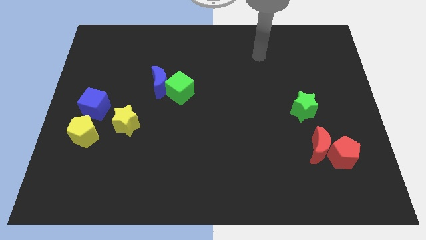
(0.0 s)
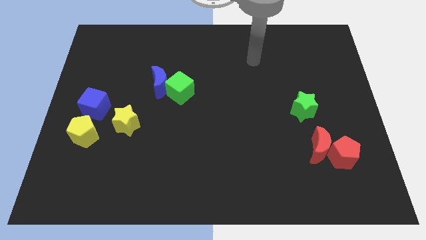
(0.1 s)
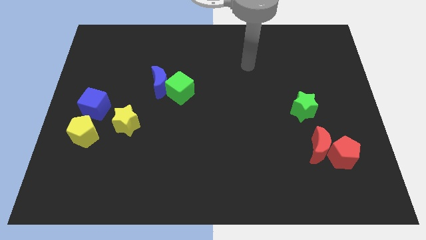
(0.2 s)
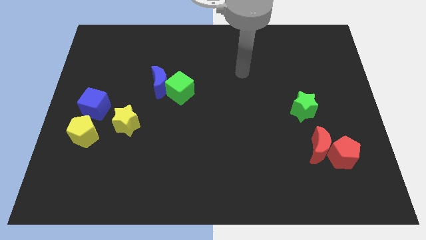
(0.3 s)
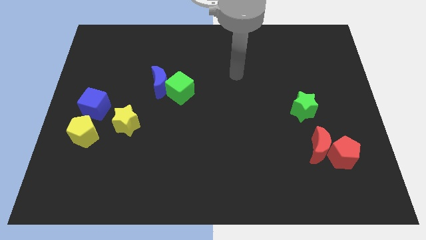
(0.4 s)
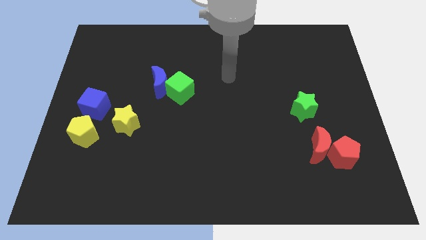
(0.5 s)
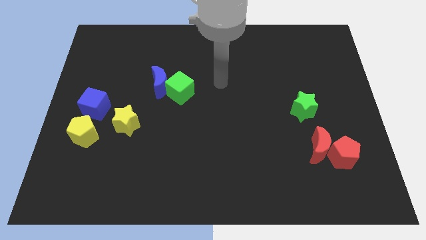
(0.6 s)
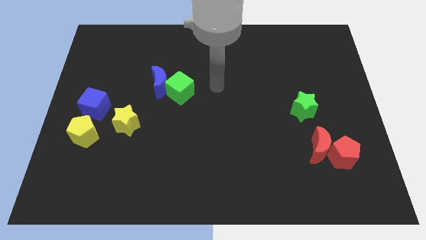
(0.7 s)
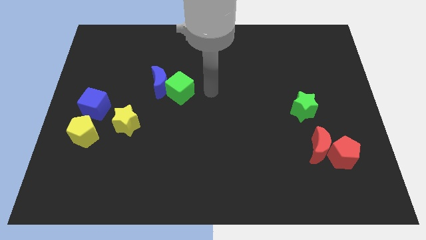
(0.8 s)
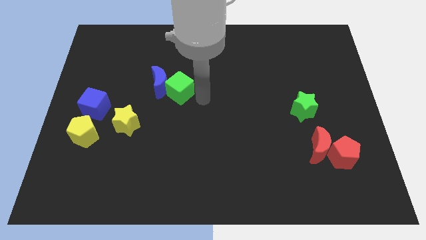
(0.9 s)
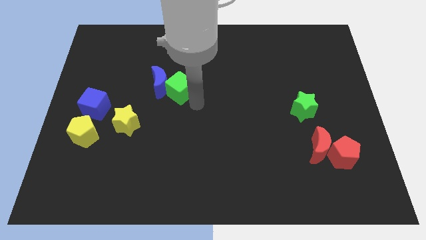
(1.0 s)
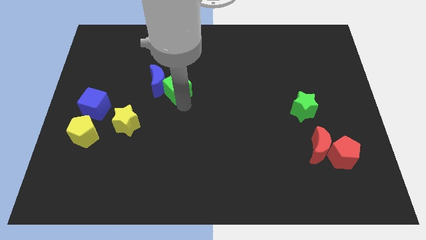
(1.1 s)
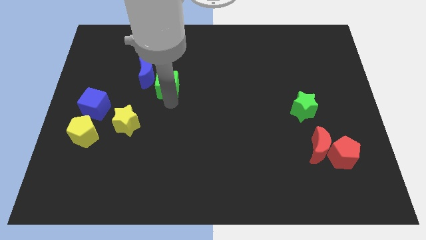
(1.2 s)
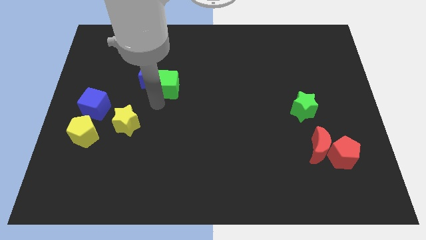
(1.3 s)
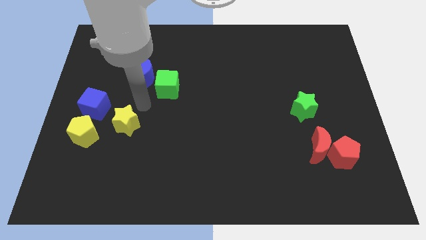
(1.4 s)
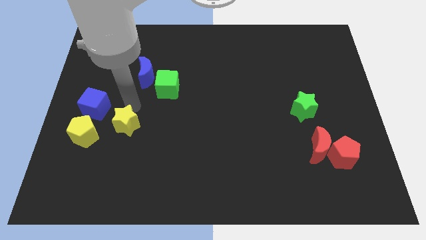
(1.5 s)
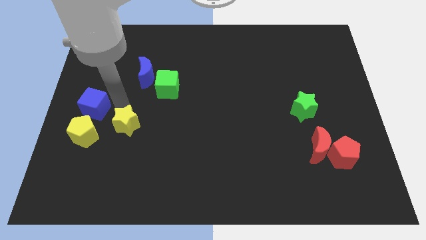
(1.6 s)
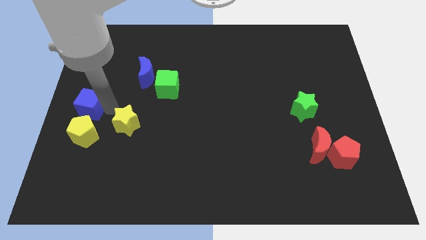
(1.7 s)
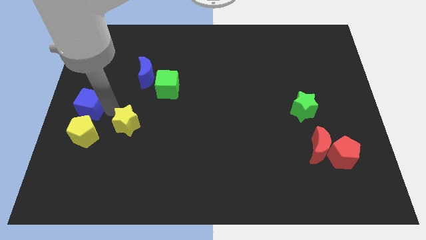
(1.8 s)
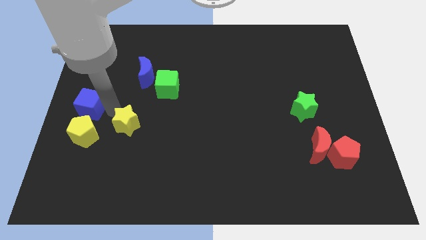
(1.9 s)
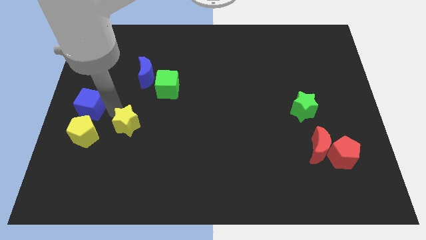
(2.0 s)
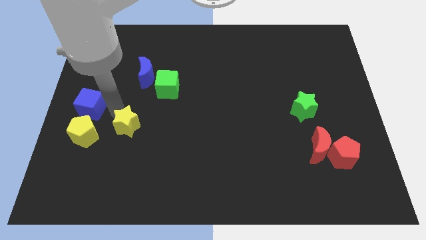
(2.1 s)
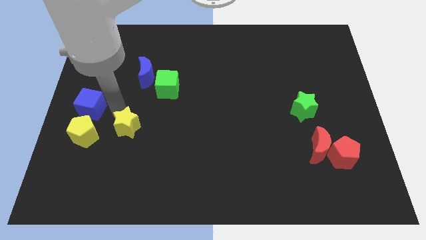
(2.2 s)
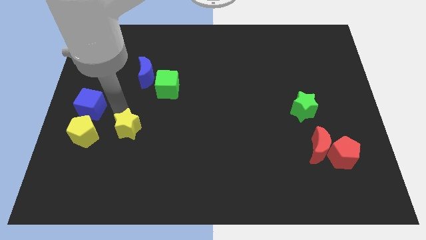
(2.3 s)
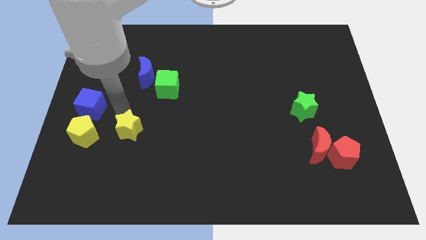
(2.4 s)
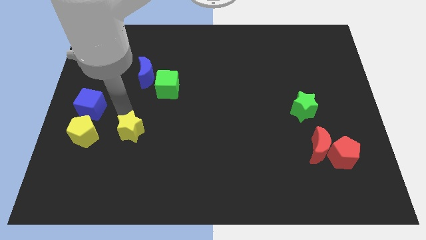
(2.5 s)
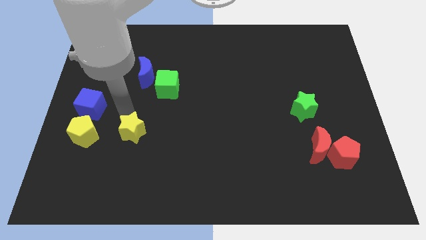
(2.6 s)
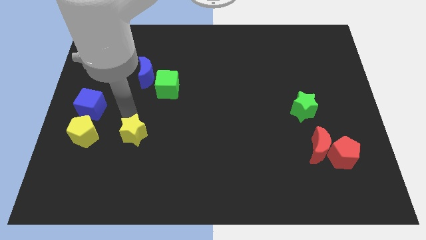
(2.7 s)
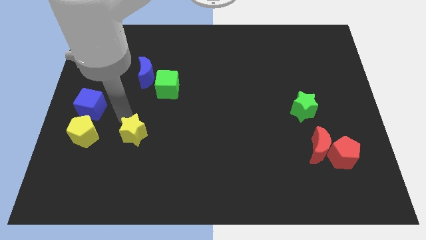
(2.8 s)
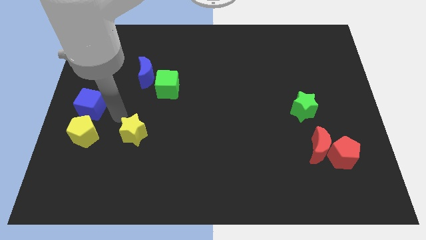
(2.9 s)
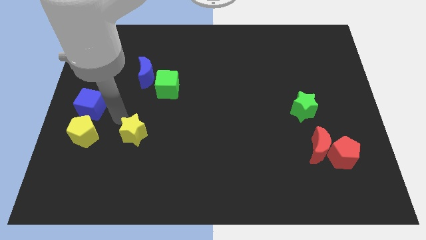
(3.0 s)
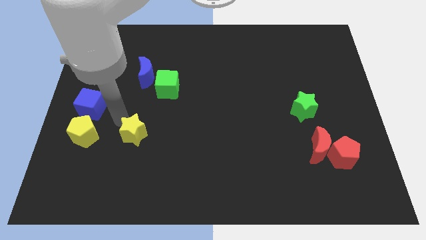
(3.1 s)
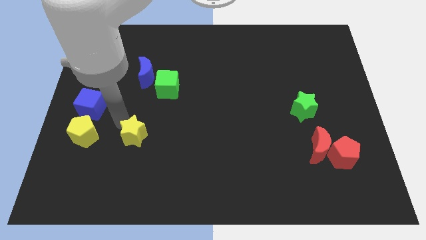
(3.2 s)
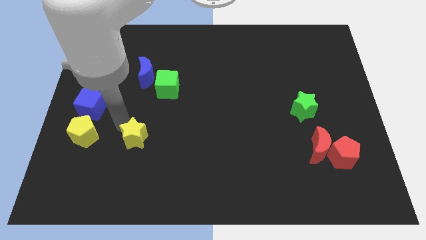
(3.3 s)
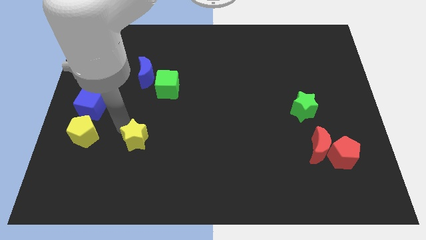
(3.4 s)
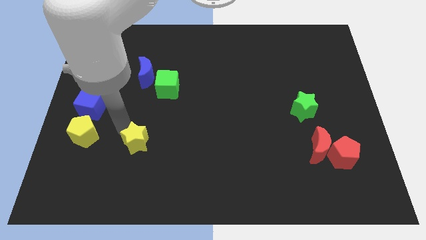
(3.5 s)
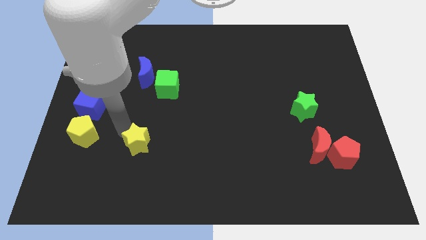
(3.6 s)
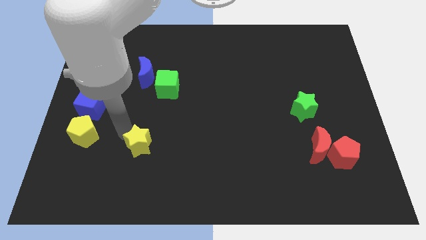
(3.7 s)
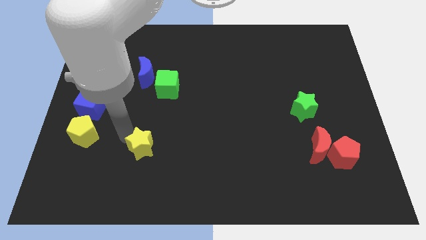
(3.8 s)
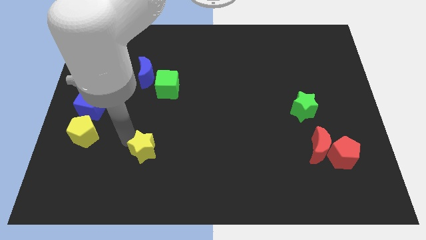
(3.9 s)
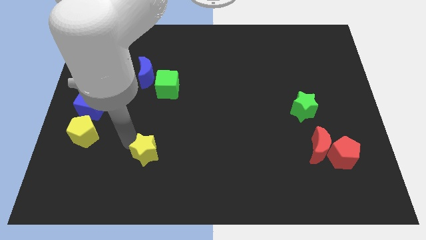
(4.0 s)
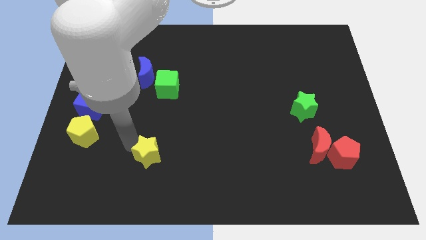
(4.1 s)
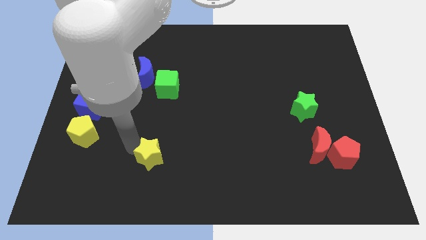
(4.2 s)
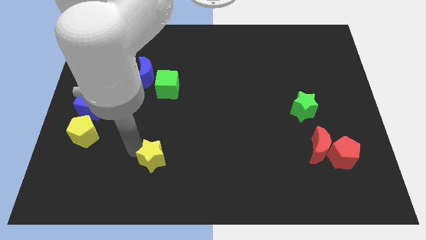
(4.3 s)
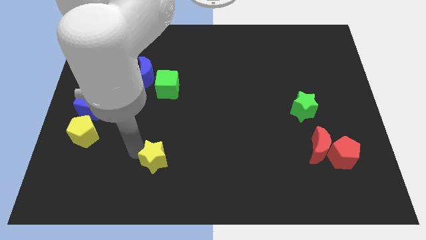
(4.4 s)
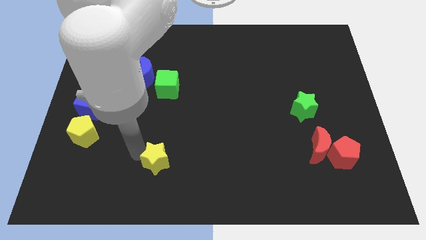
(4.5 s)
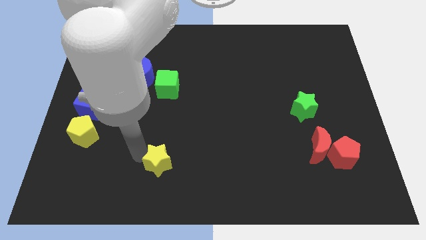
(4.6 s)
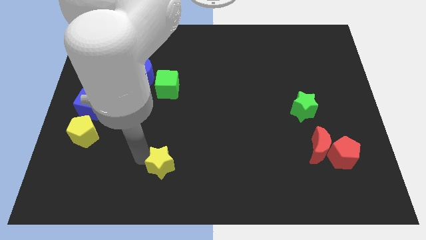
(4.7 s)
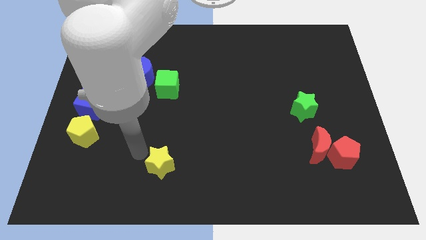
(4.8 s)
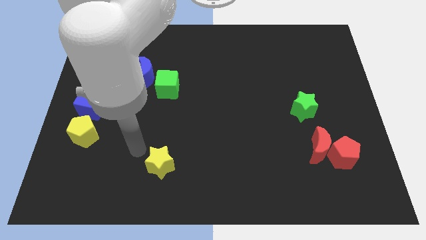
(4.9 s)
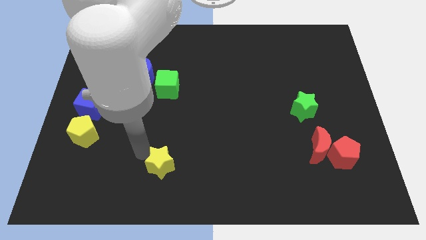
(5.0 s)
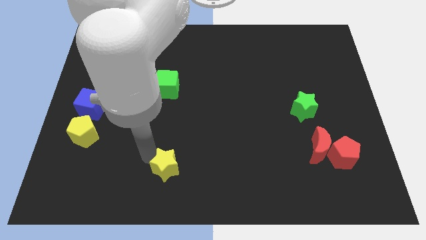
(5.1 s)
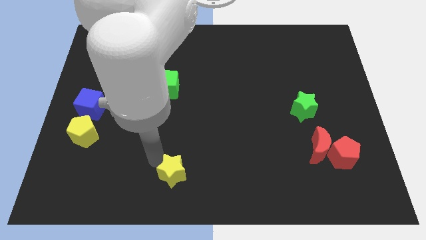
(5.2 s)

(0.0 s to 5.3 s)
push the yellow star to the bottom side

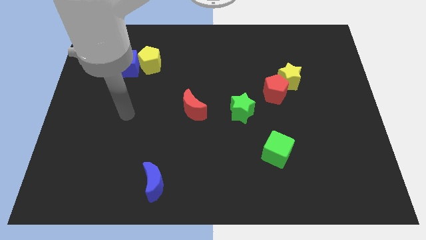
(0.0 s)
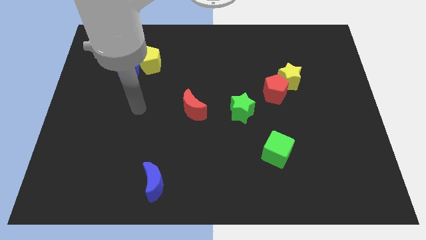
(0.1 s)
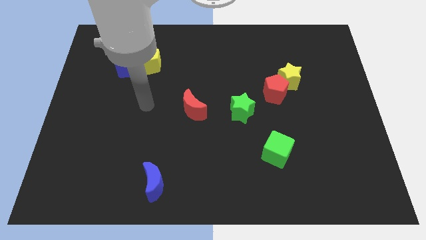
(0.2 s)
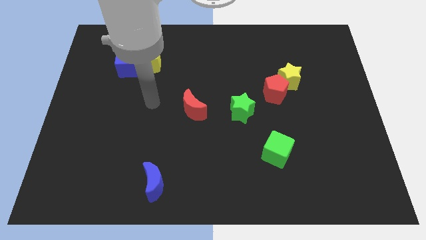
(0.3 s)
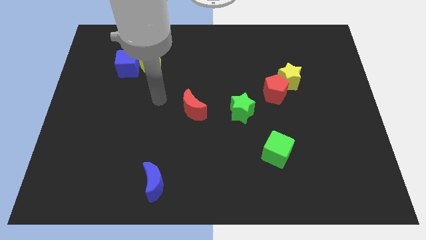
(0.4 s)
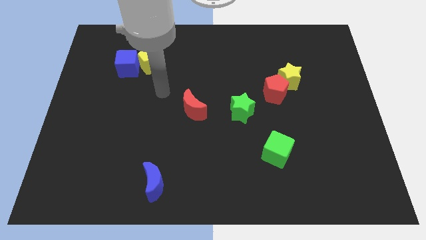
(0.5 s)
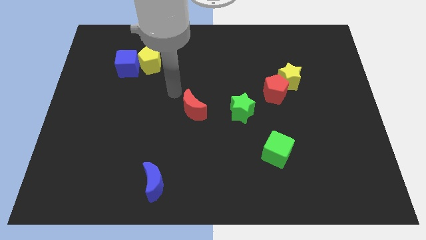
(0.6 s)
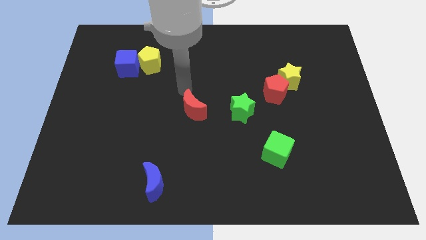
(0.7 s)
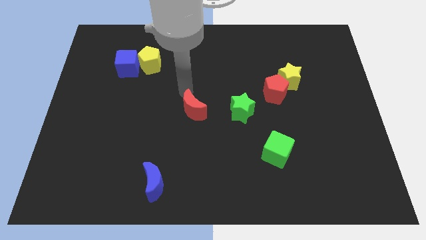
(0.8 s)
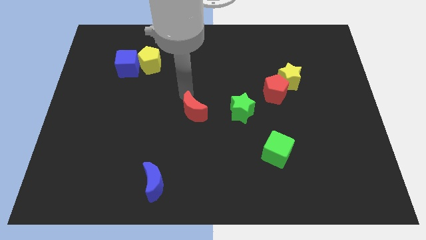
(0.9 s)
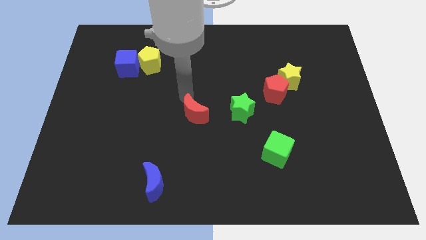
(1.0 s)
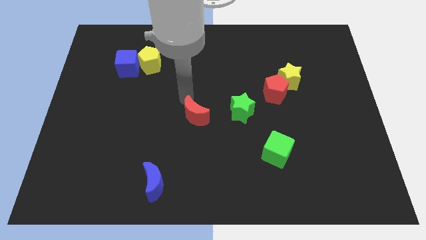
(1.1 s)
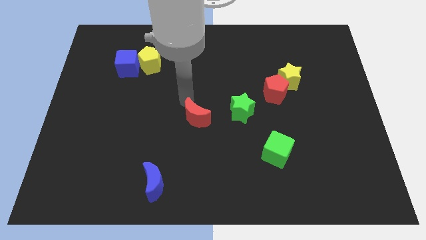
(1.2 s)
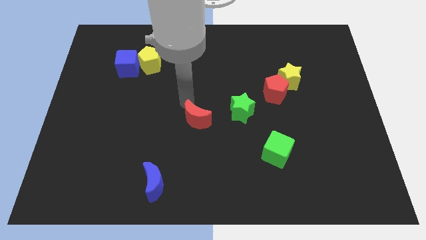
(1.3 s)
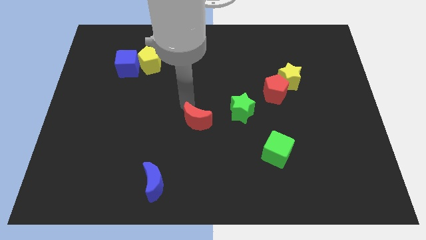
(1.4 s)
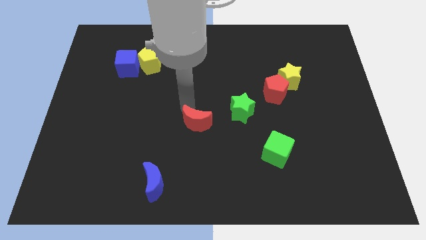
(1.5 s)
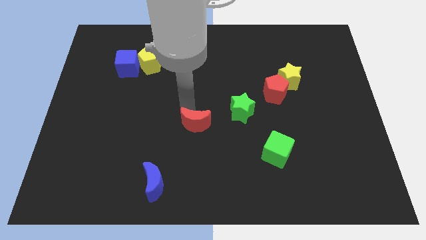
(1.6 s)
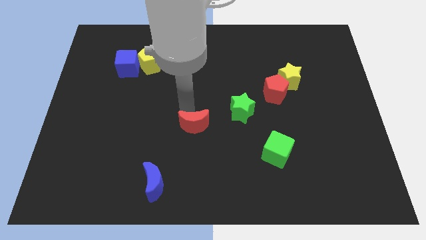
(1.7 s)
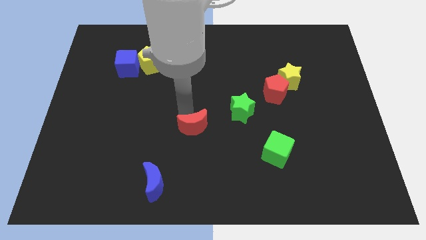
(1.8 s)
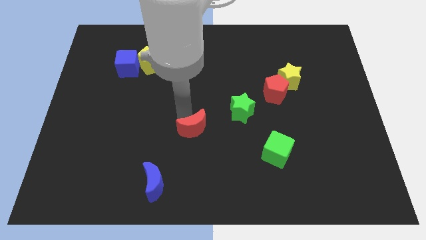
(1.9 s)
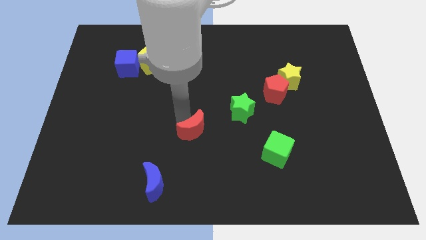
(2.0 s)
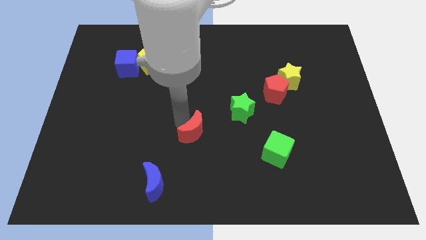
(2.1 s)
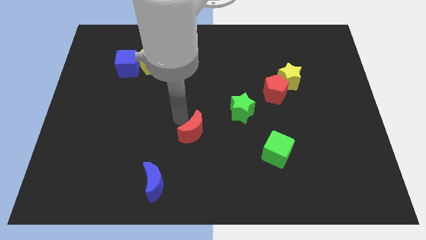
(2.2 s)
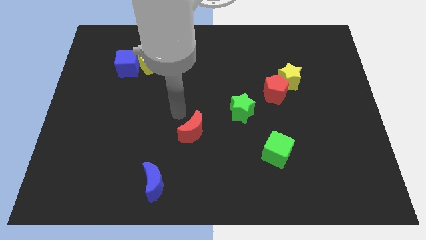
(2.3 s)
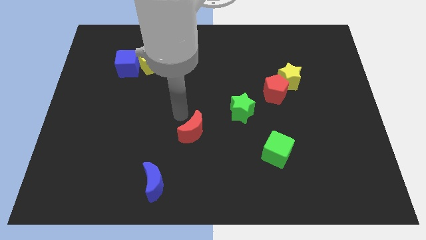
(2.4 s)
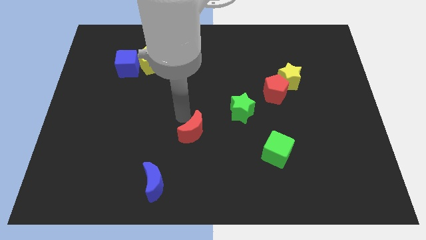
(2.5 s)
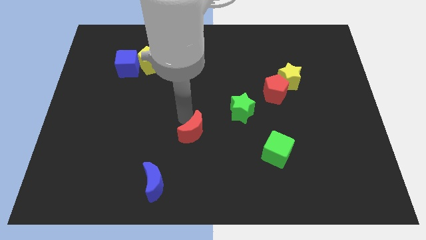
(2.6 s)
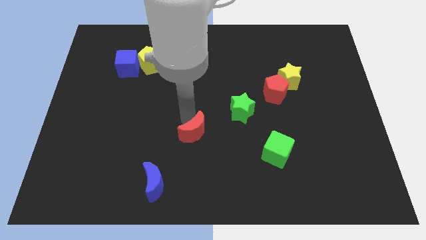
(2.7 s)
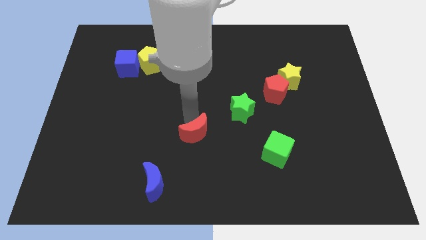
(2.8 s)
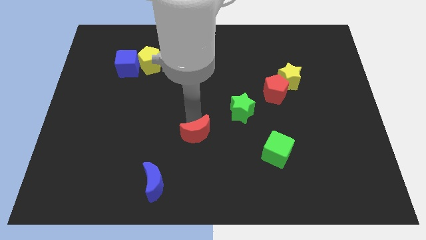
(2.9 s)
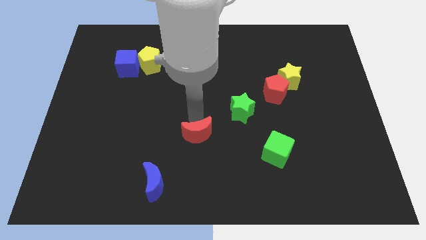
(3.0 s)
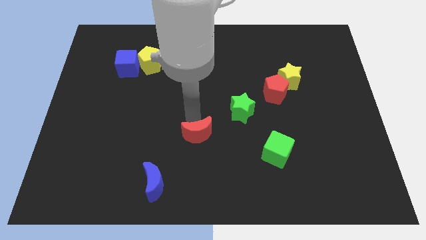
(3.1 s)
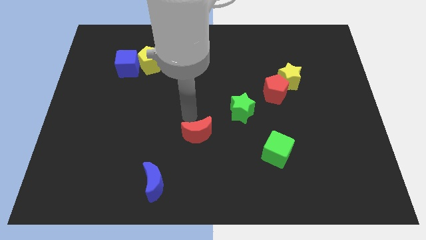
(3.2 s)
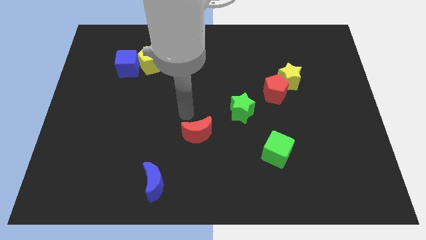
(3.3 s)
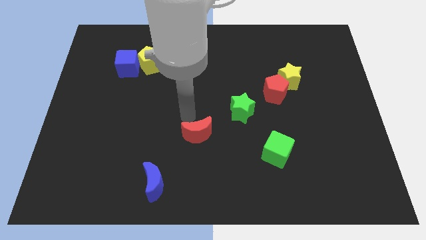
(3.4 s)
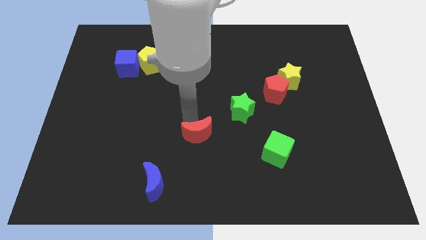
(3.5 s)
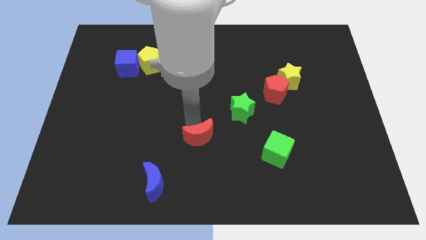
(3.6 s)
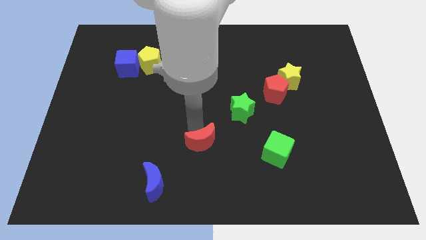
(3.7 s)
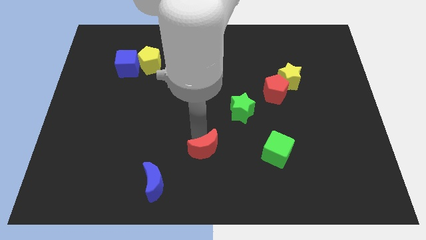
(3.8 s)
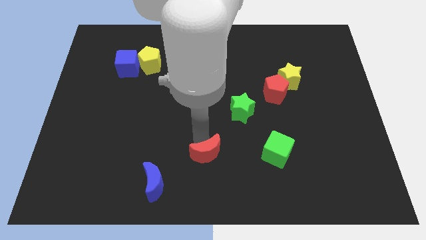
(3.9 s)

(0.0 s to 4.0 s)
push the red moon to the bottom
